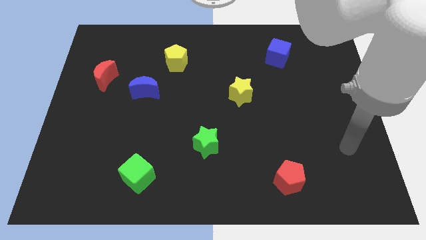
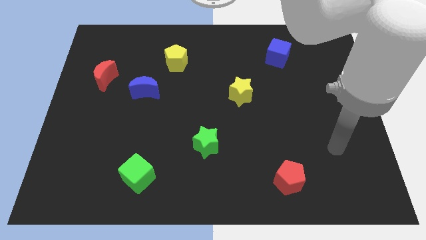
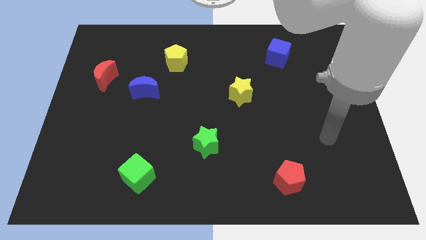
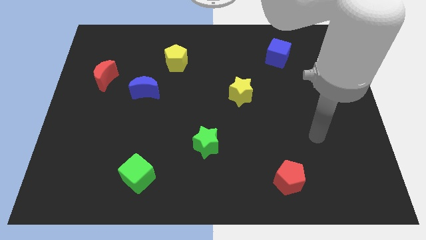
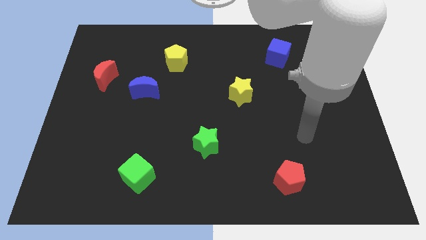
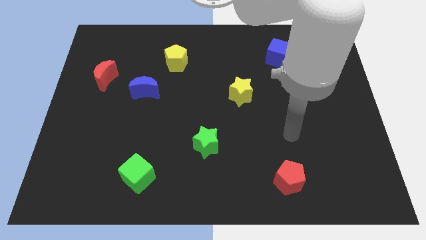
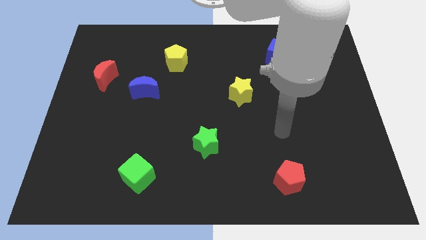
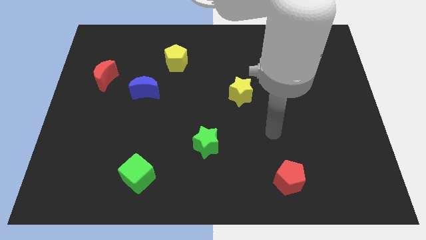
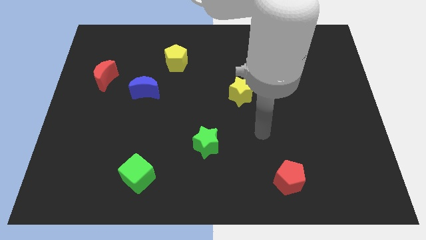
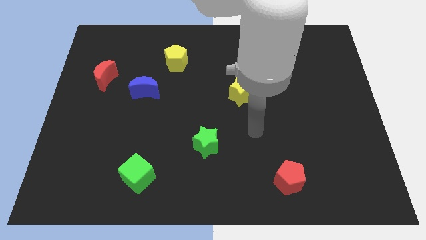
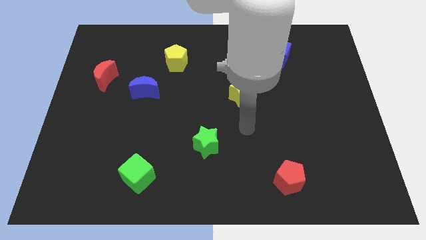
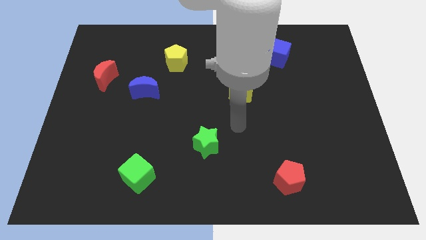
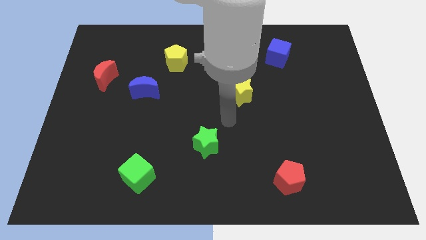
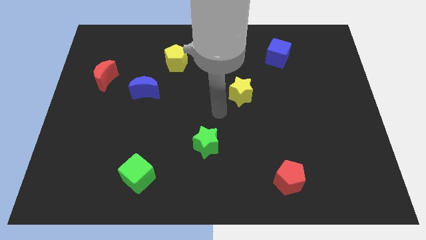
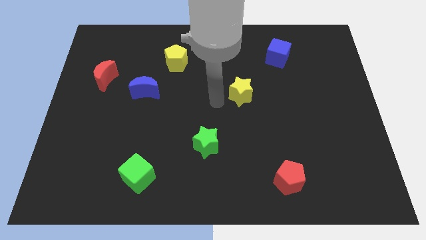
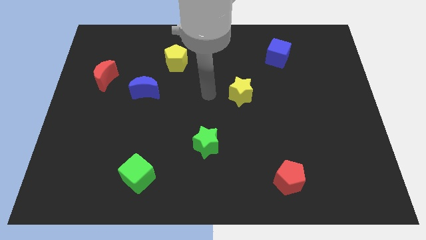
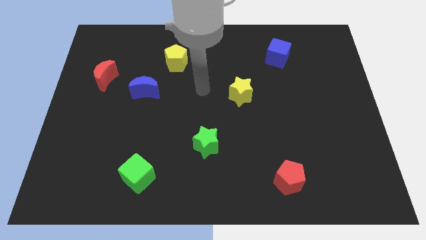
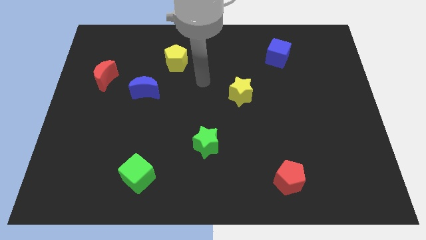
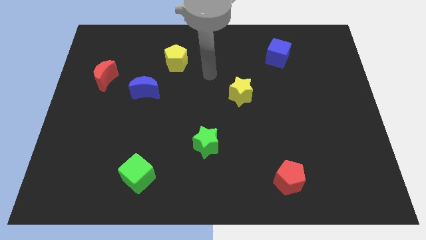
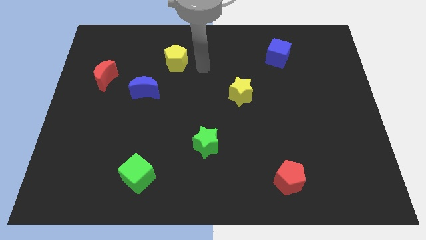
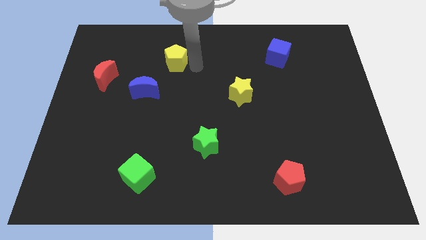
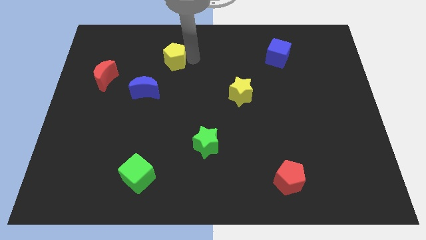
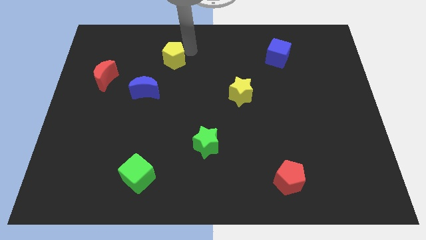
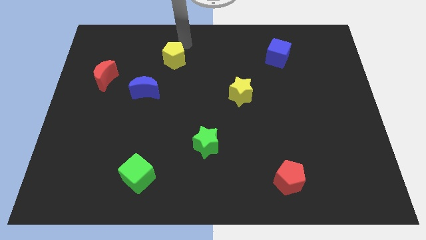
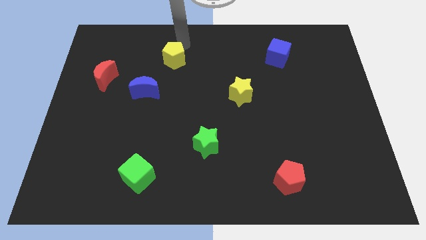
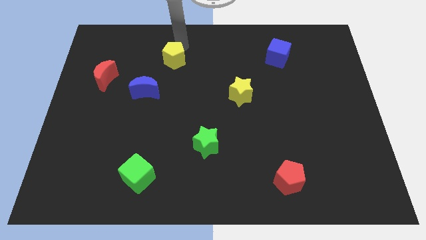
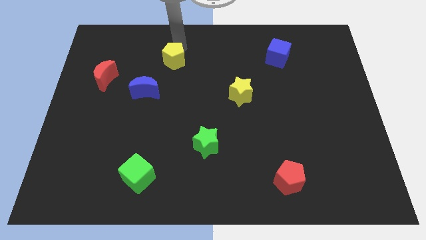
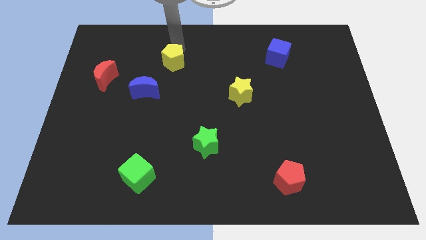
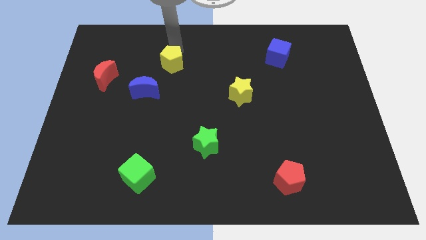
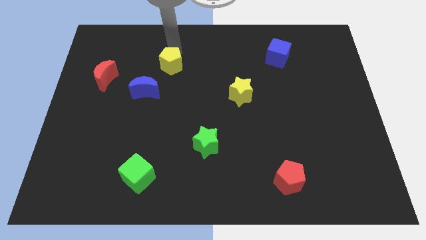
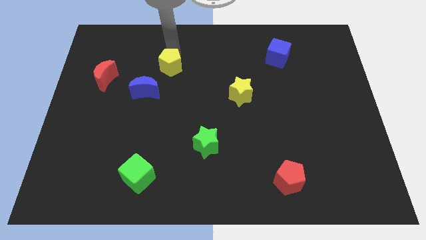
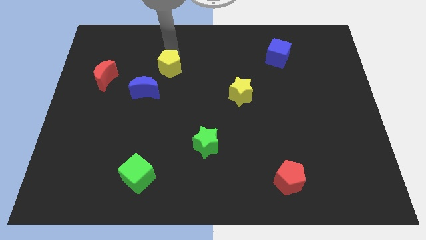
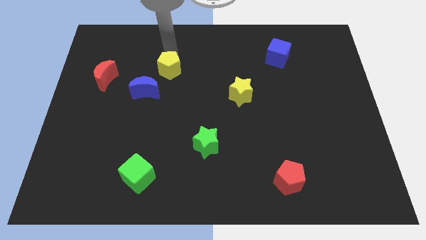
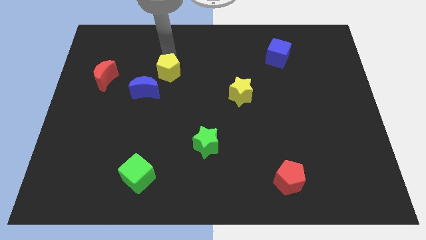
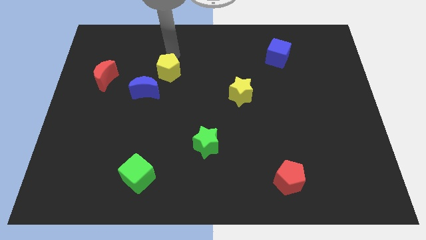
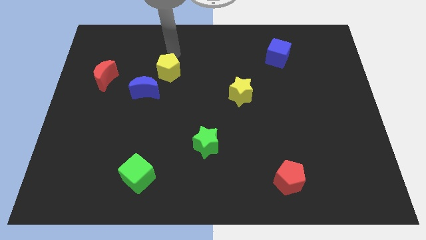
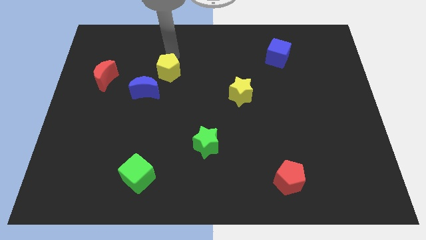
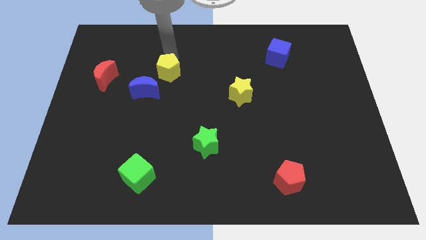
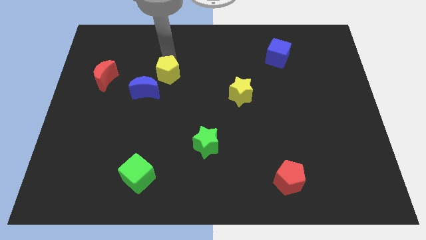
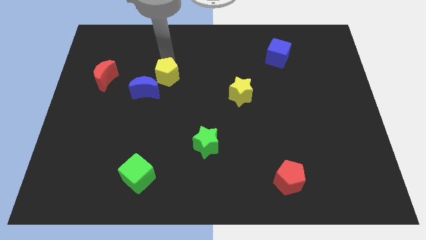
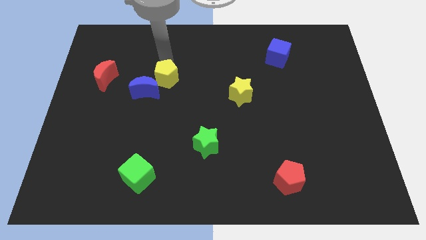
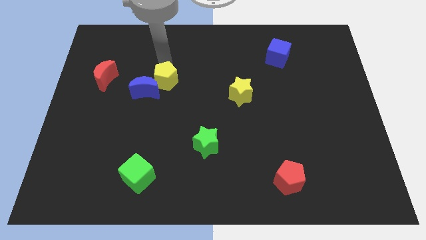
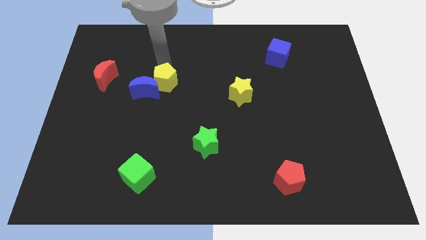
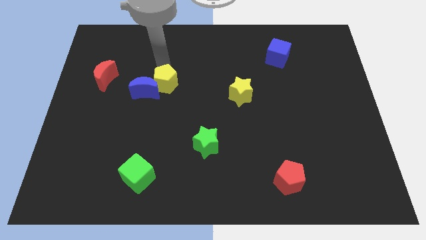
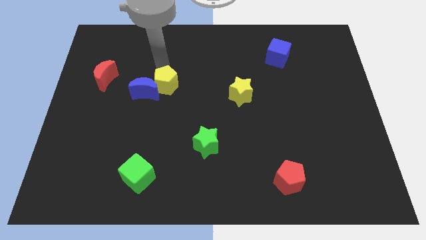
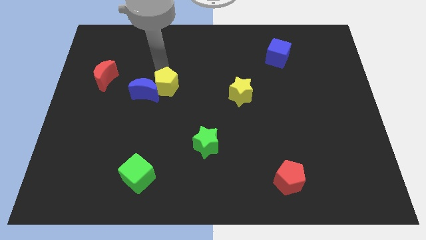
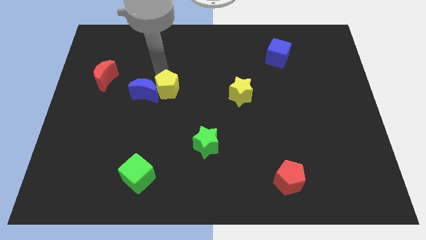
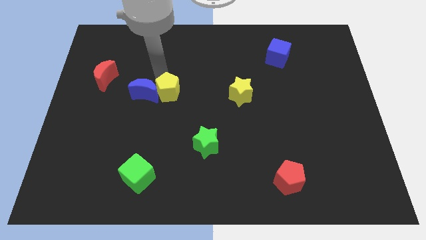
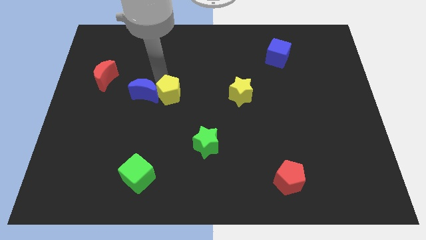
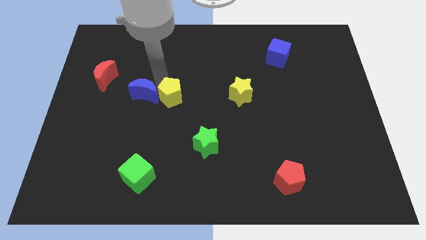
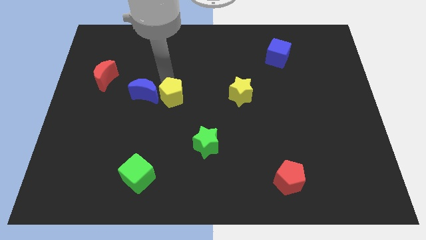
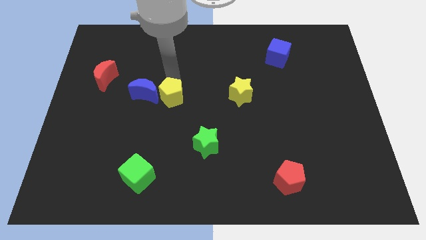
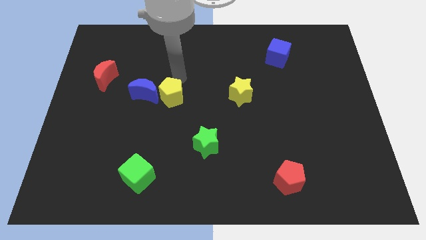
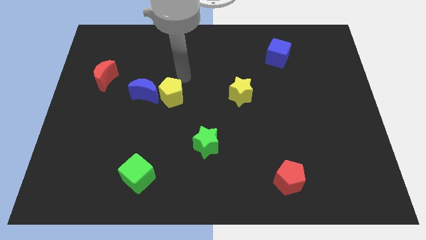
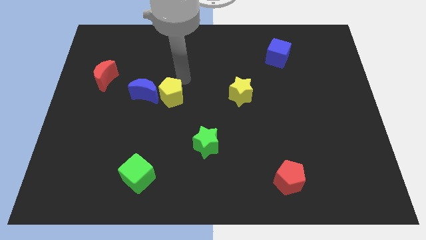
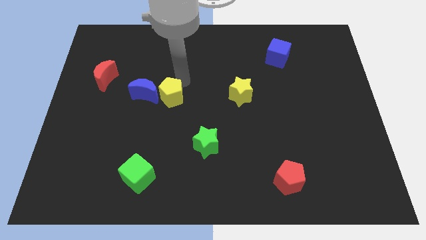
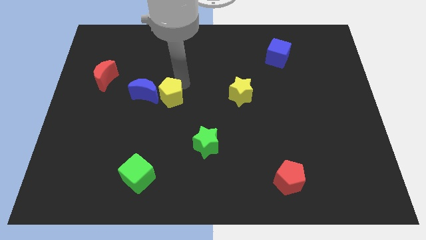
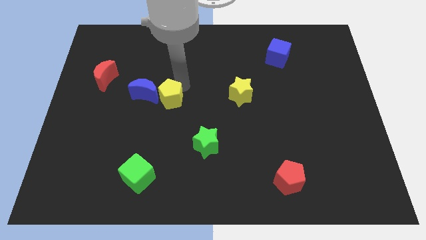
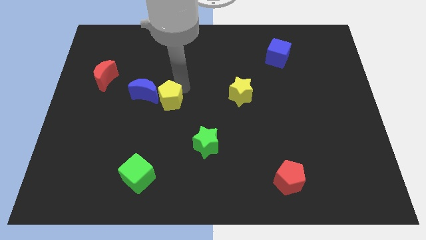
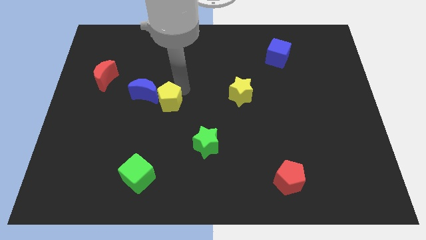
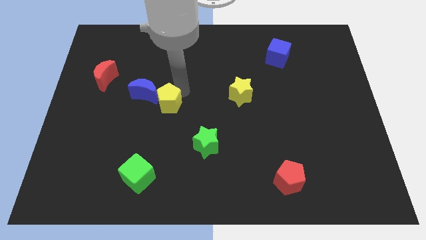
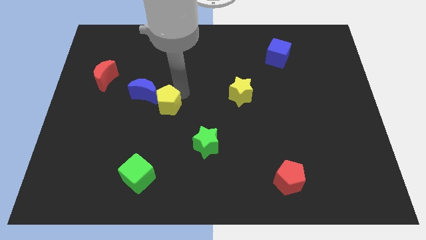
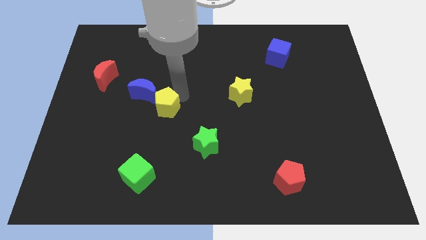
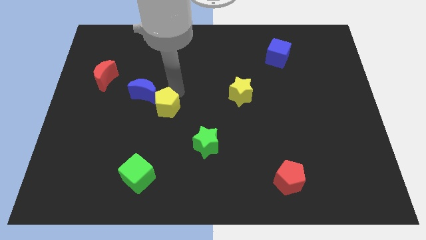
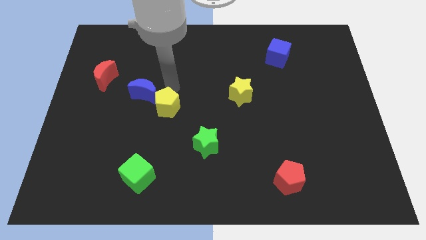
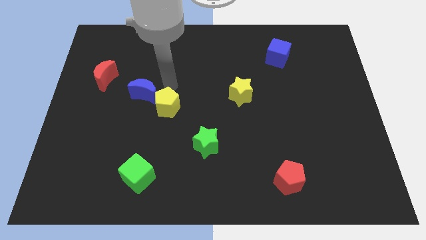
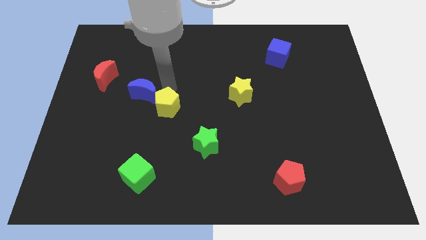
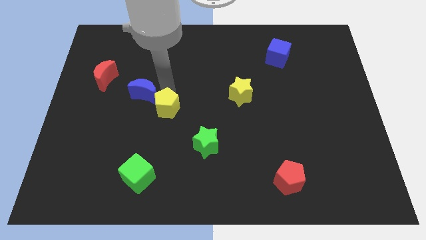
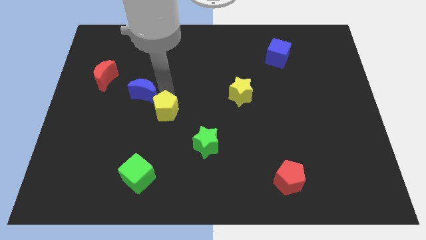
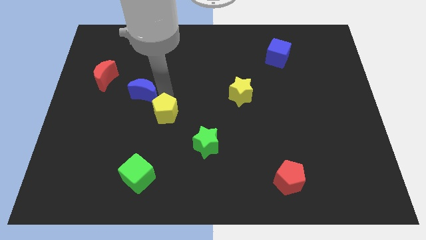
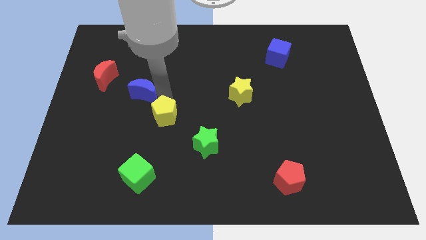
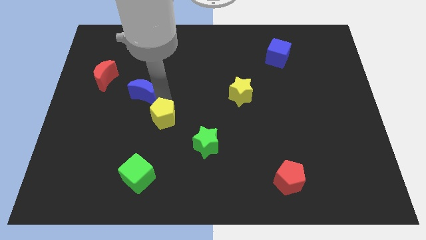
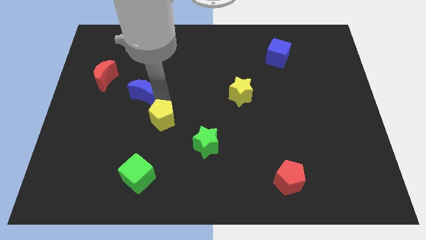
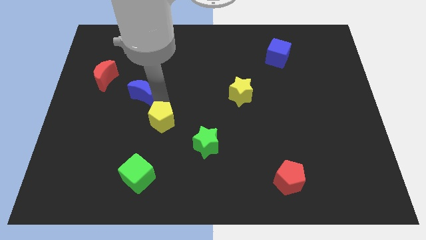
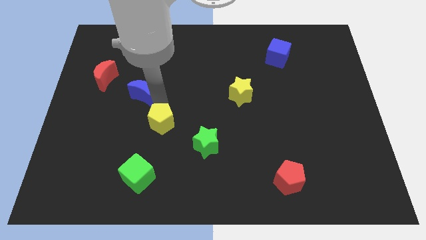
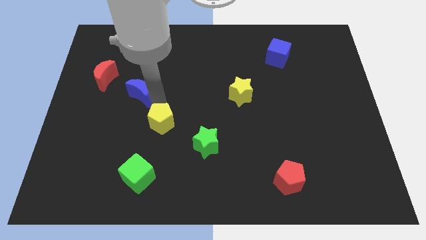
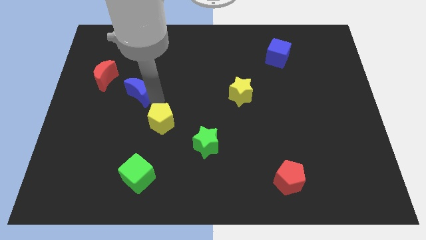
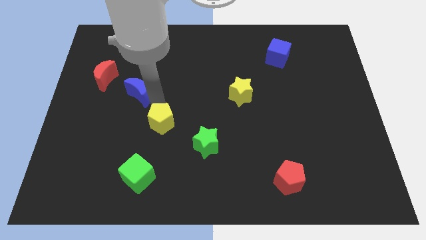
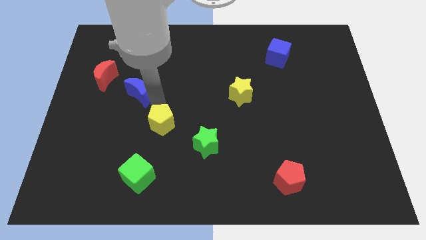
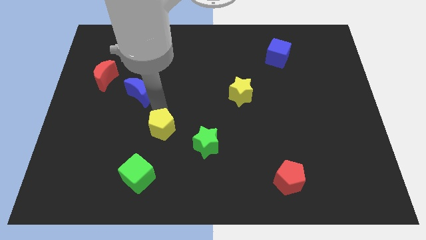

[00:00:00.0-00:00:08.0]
move the yellow pentagon down
